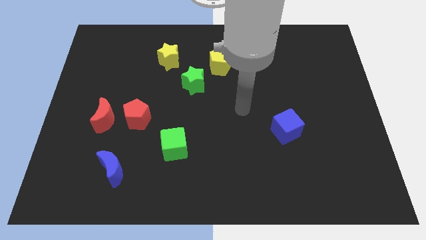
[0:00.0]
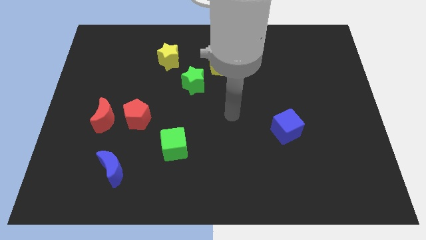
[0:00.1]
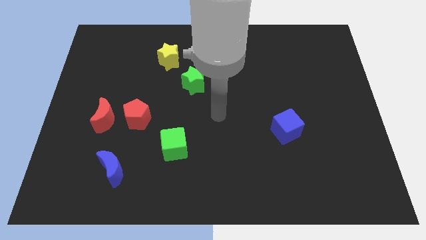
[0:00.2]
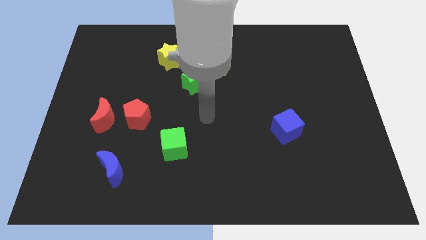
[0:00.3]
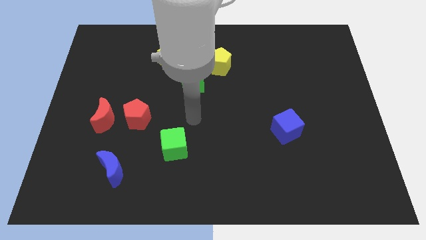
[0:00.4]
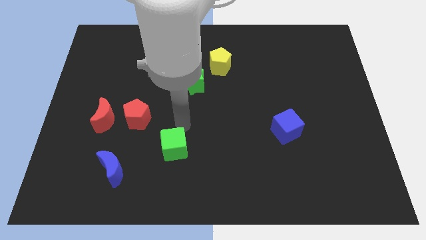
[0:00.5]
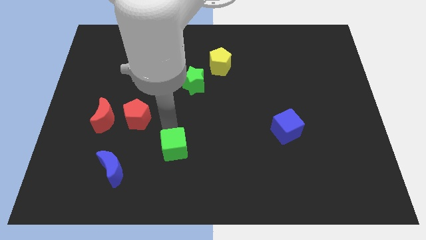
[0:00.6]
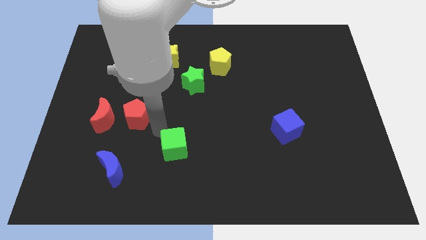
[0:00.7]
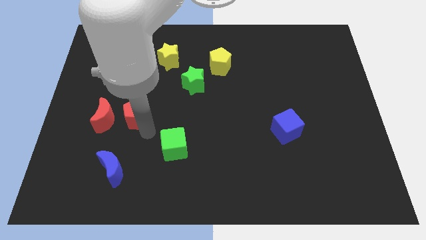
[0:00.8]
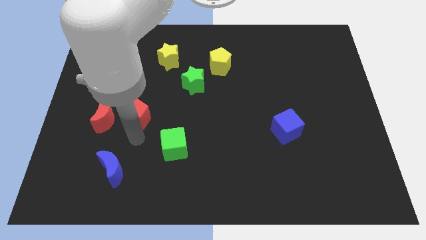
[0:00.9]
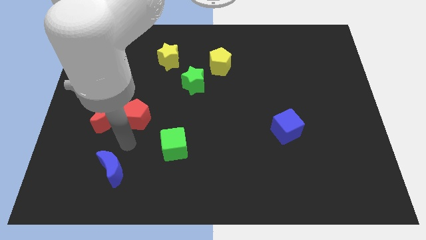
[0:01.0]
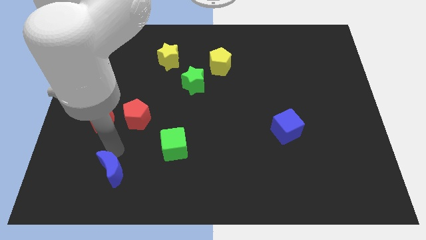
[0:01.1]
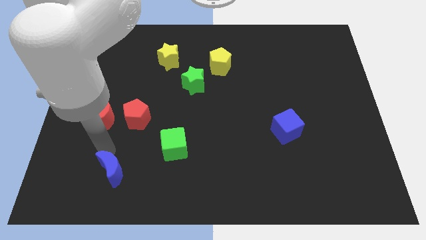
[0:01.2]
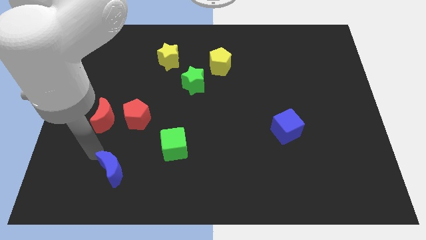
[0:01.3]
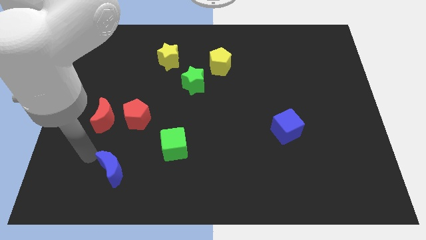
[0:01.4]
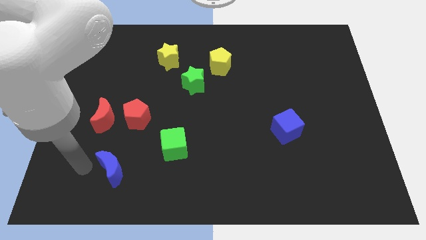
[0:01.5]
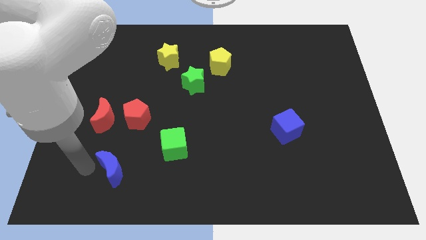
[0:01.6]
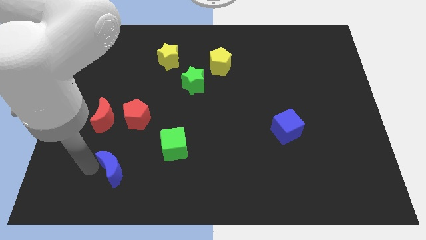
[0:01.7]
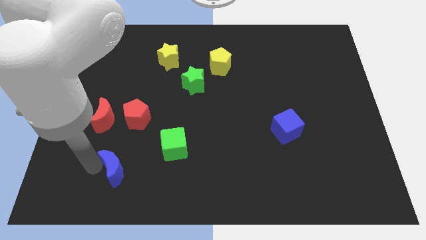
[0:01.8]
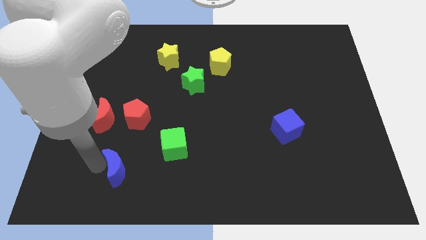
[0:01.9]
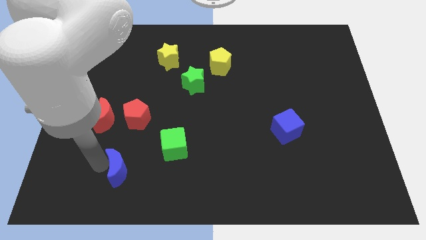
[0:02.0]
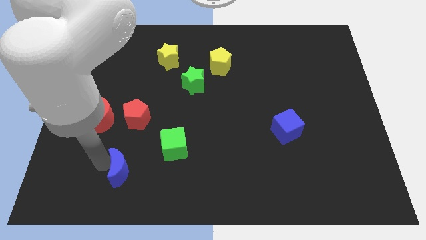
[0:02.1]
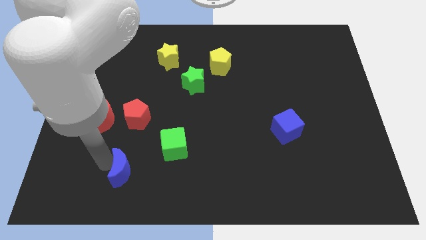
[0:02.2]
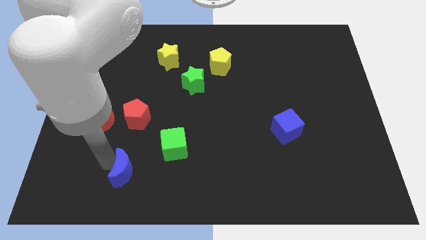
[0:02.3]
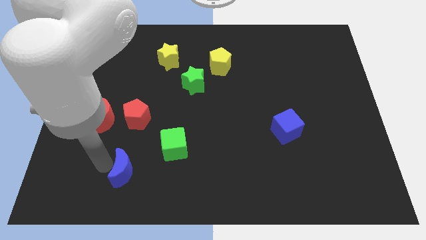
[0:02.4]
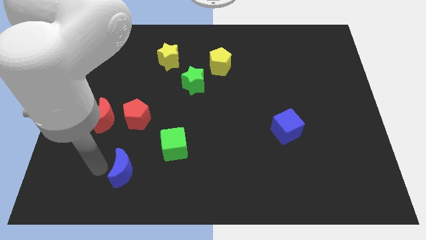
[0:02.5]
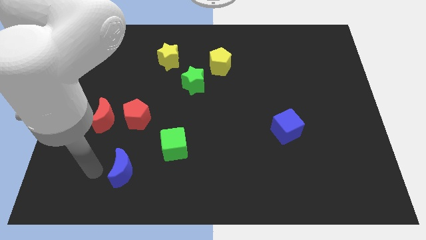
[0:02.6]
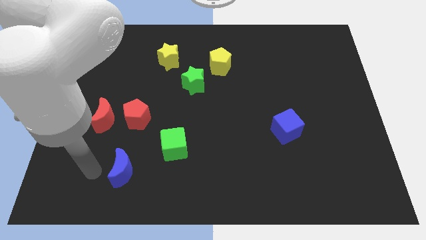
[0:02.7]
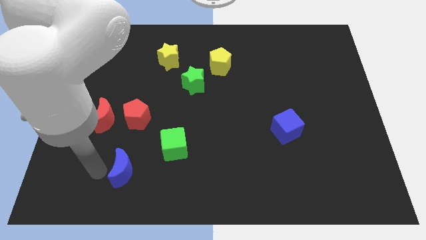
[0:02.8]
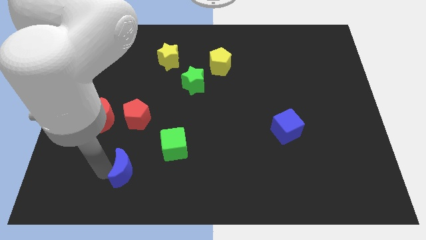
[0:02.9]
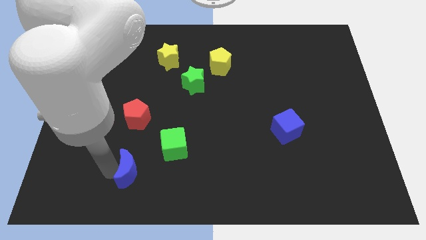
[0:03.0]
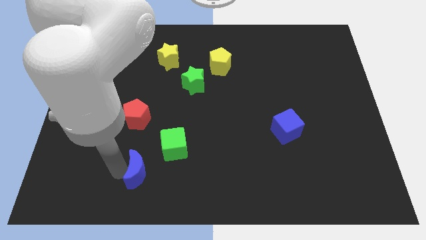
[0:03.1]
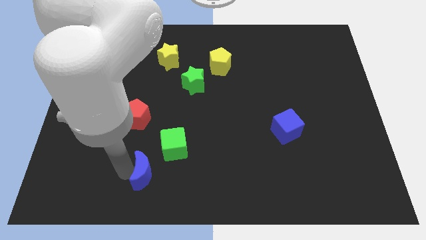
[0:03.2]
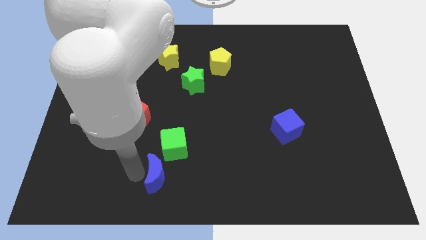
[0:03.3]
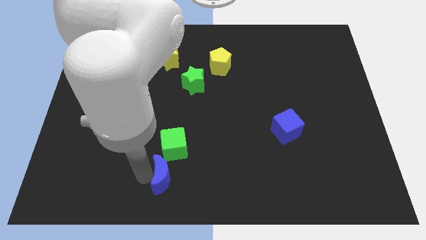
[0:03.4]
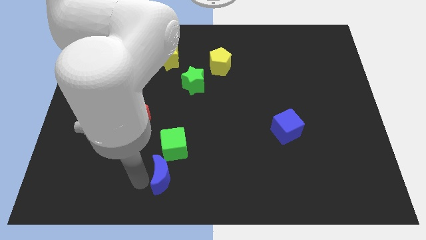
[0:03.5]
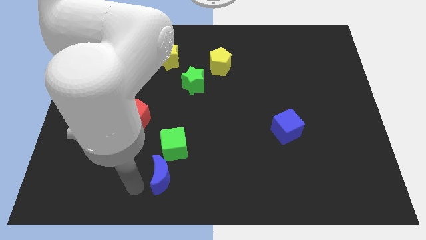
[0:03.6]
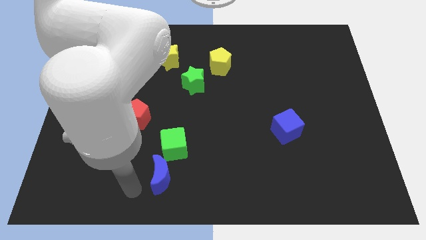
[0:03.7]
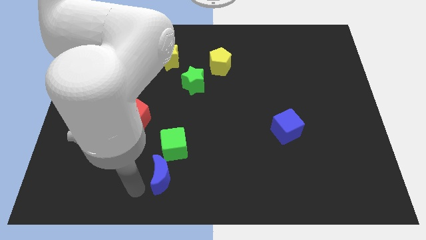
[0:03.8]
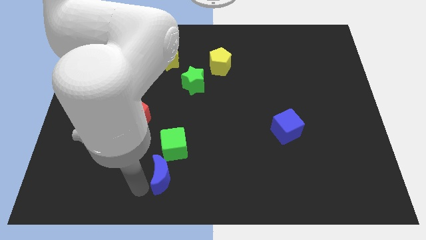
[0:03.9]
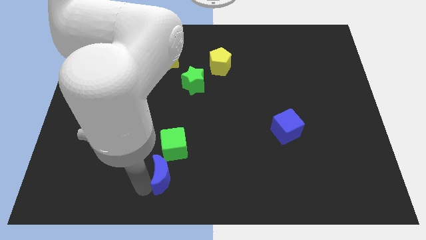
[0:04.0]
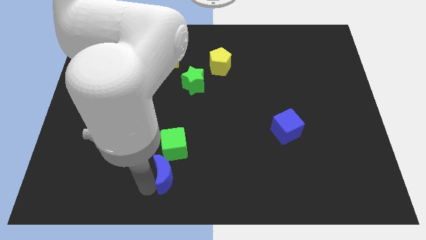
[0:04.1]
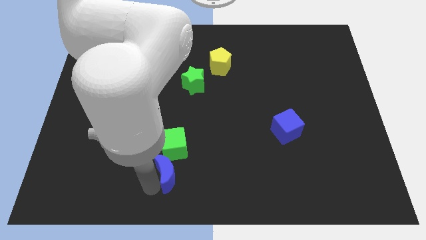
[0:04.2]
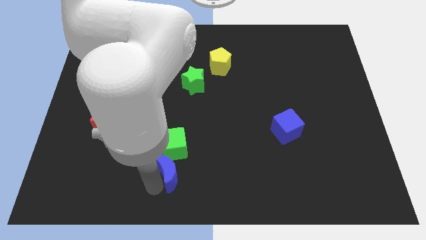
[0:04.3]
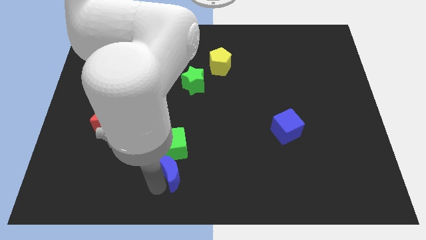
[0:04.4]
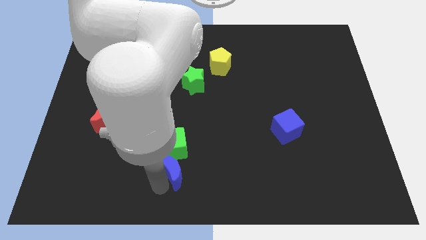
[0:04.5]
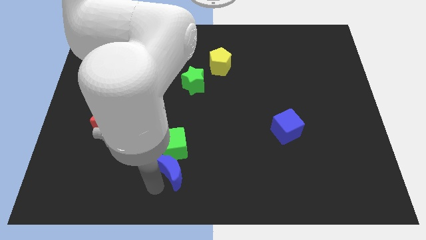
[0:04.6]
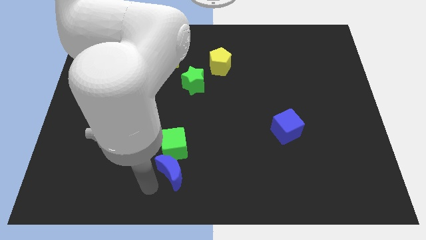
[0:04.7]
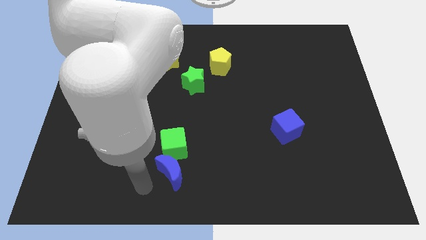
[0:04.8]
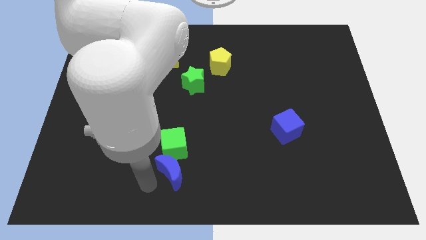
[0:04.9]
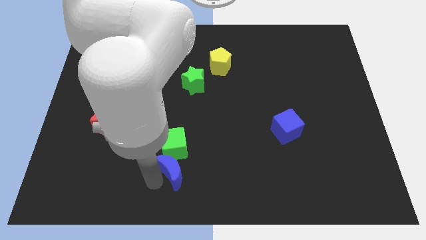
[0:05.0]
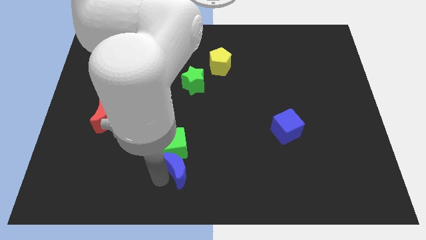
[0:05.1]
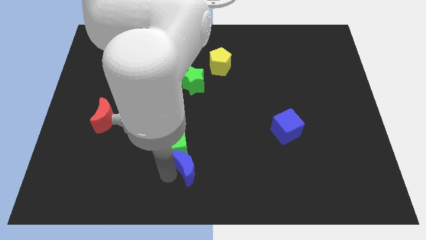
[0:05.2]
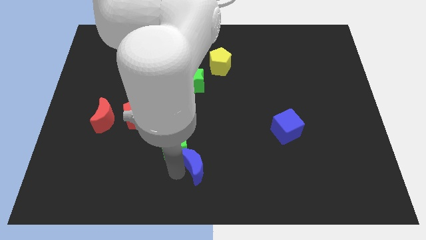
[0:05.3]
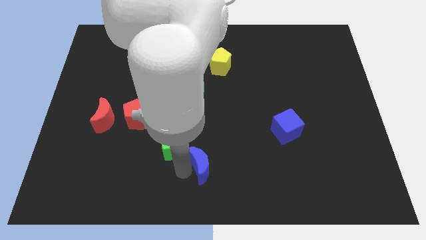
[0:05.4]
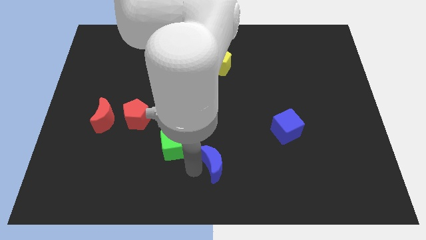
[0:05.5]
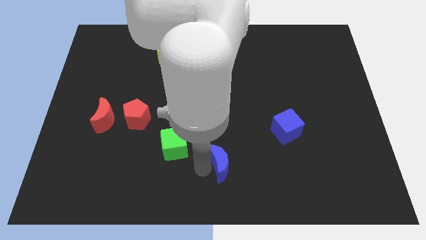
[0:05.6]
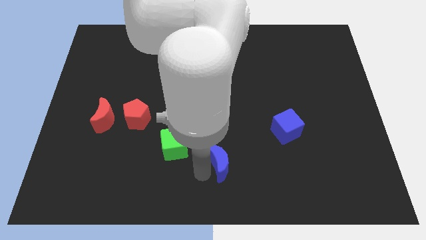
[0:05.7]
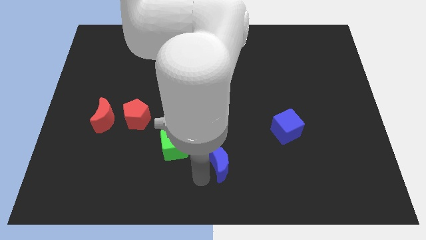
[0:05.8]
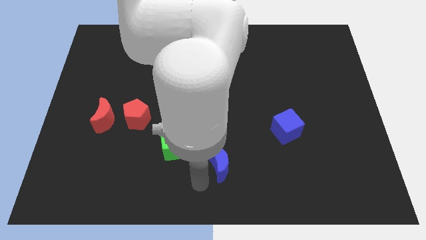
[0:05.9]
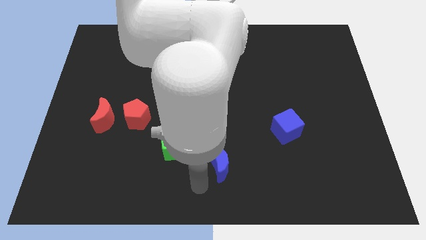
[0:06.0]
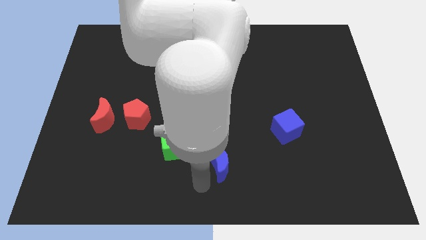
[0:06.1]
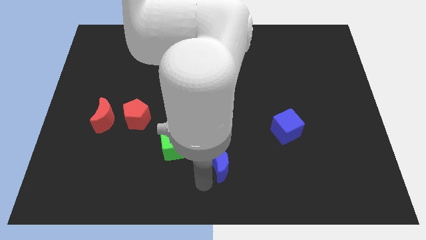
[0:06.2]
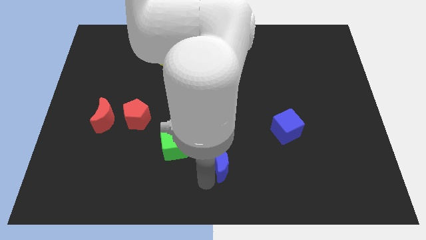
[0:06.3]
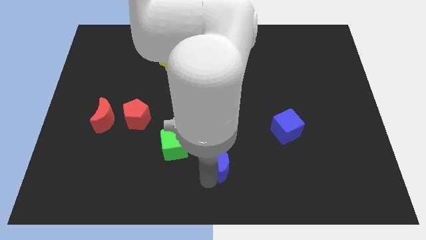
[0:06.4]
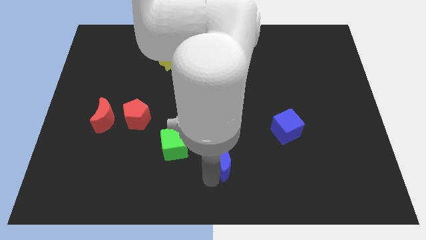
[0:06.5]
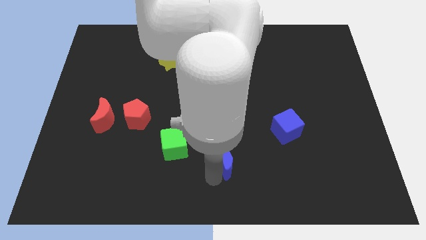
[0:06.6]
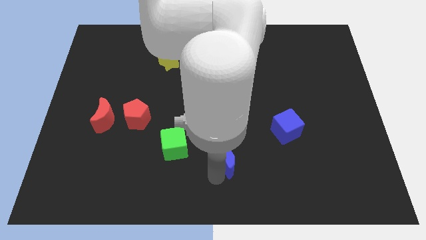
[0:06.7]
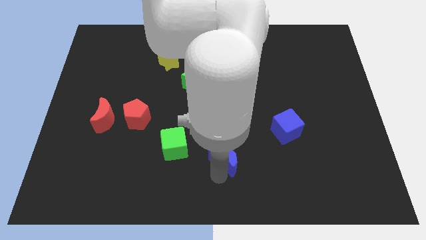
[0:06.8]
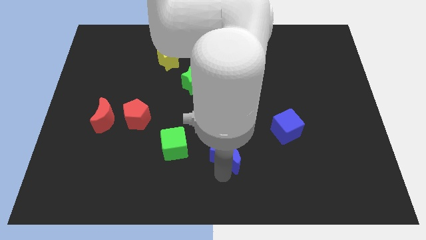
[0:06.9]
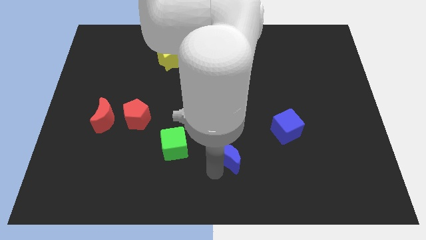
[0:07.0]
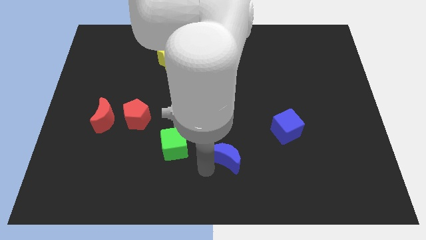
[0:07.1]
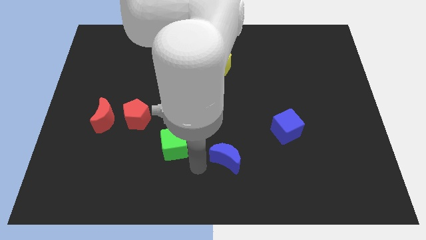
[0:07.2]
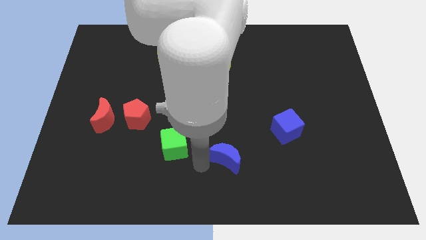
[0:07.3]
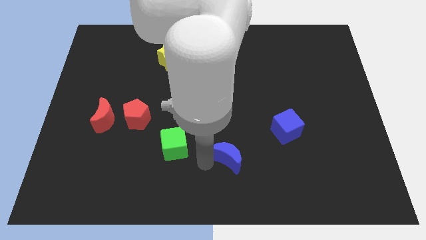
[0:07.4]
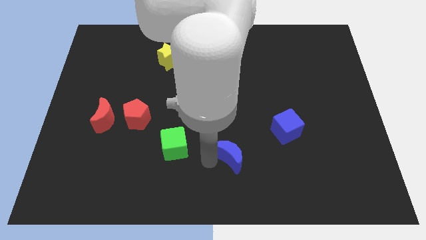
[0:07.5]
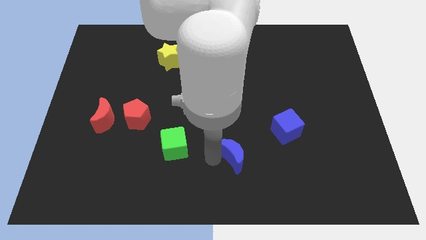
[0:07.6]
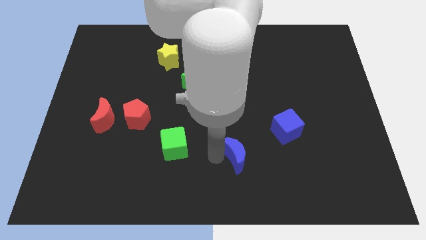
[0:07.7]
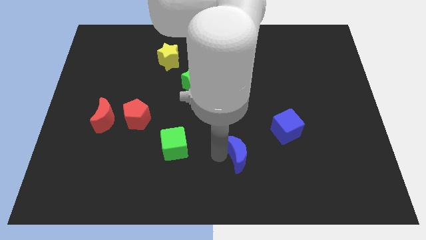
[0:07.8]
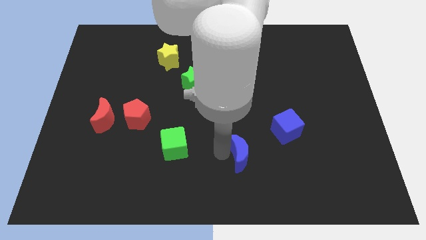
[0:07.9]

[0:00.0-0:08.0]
move the blue moon to the bottom left of the blue cube
